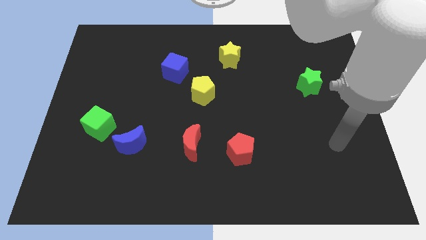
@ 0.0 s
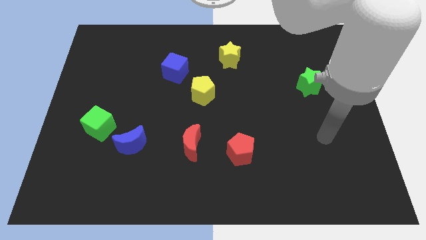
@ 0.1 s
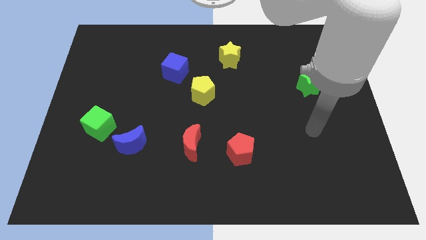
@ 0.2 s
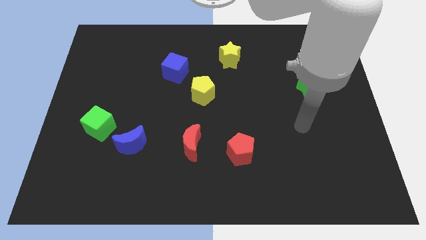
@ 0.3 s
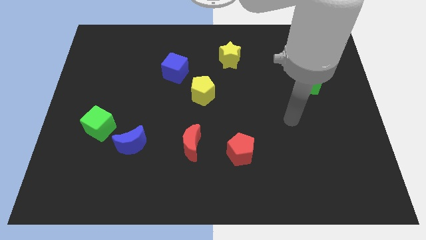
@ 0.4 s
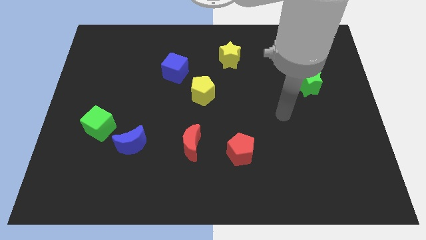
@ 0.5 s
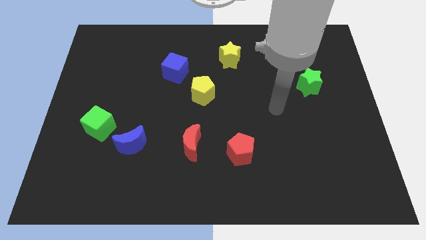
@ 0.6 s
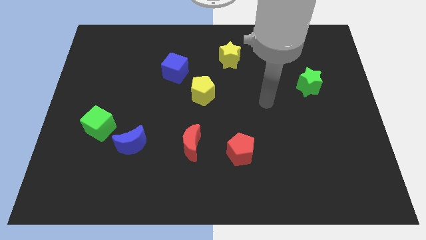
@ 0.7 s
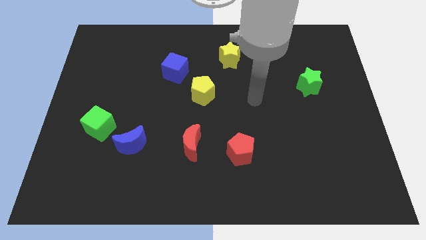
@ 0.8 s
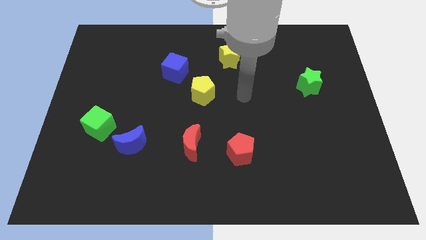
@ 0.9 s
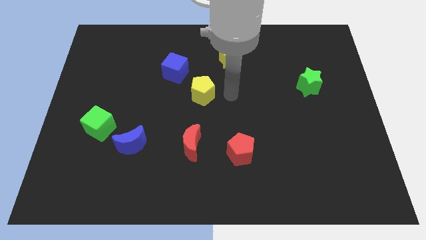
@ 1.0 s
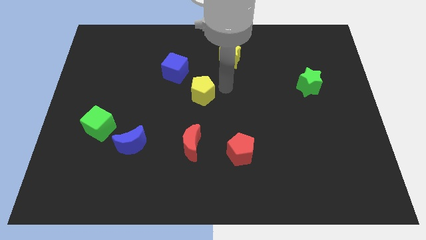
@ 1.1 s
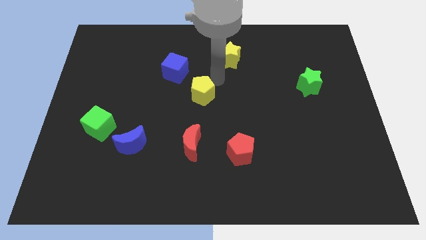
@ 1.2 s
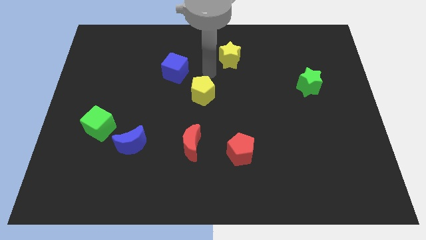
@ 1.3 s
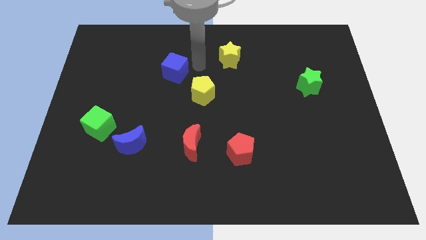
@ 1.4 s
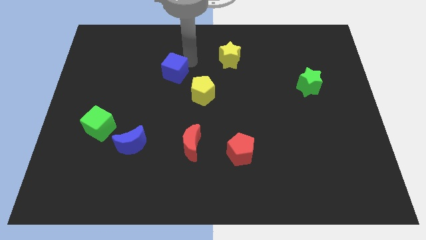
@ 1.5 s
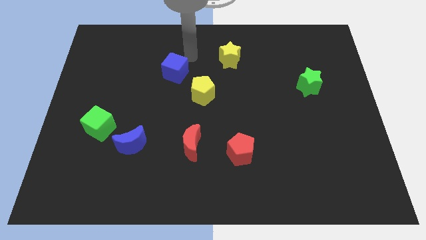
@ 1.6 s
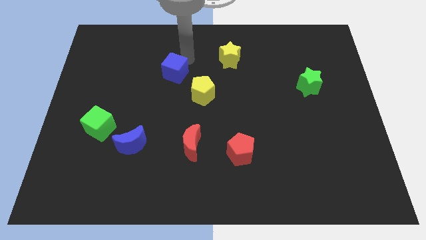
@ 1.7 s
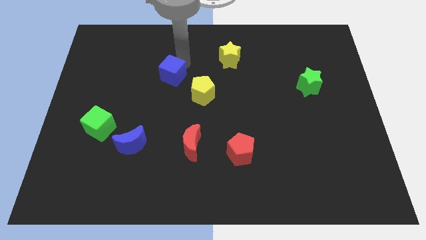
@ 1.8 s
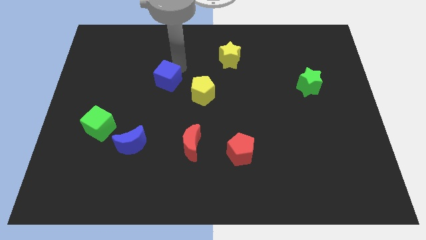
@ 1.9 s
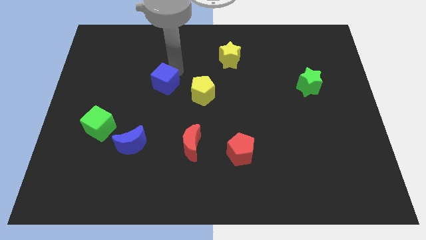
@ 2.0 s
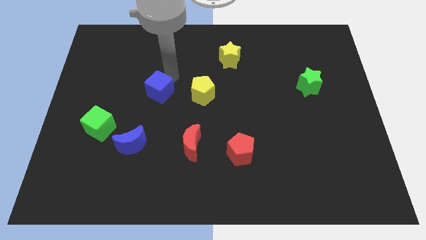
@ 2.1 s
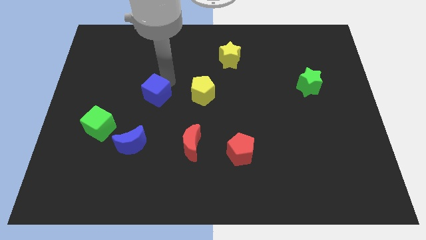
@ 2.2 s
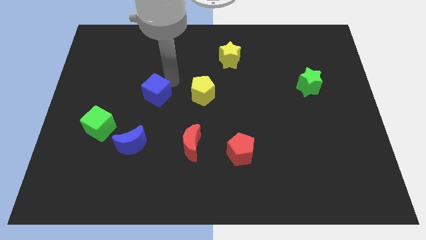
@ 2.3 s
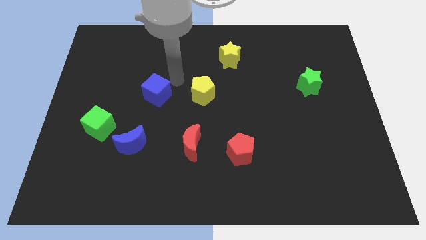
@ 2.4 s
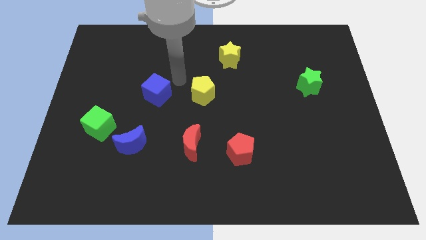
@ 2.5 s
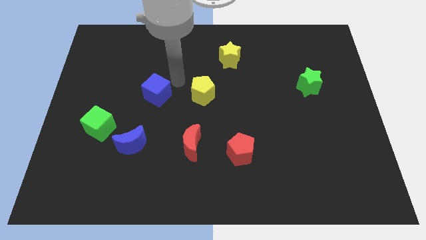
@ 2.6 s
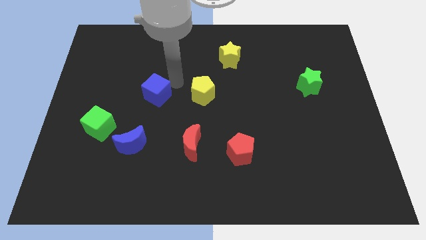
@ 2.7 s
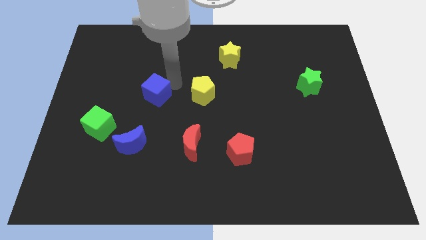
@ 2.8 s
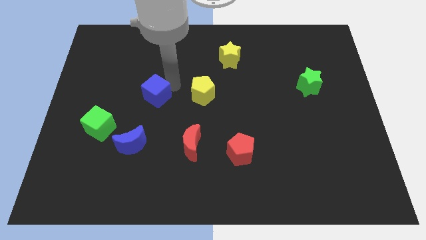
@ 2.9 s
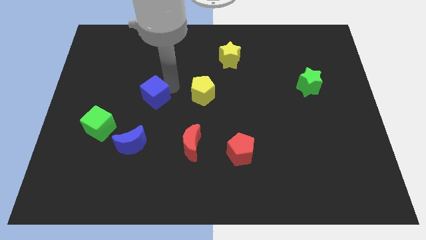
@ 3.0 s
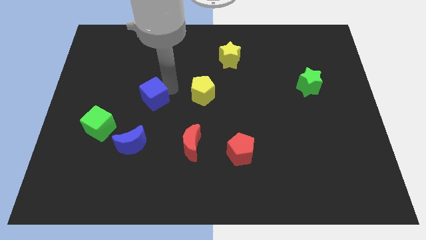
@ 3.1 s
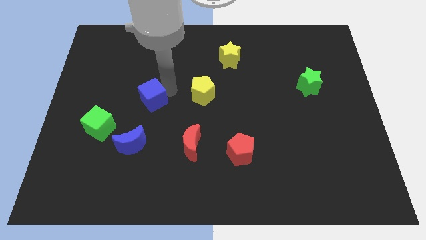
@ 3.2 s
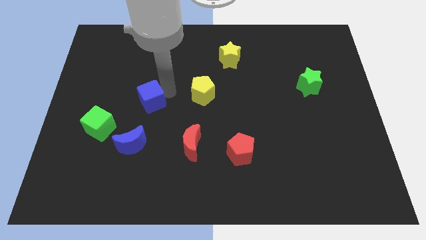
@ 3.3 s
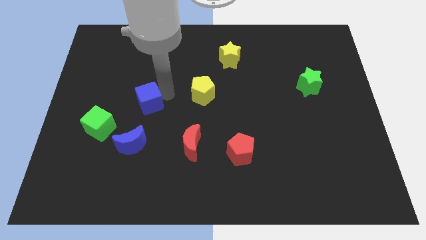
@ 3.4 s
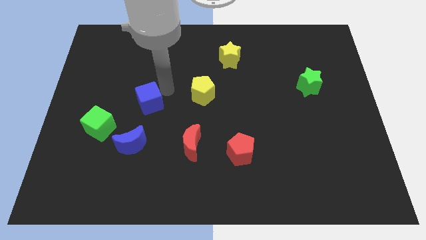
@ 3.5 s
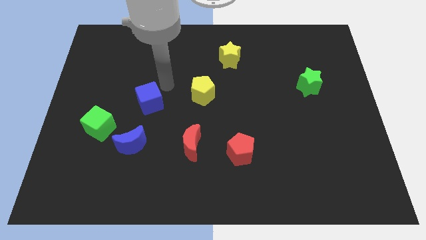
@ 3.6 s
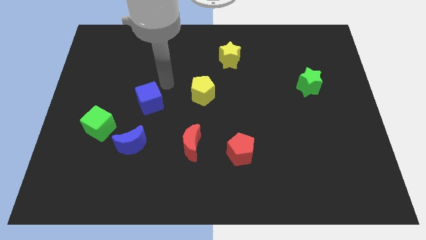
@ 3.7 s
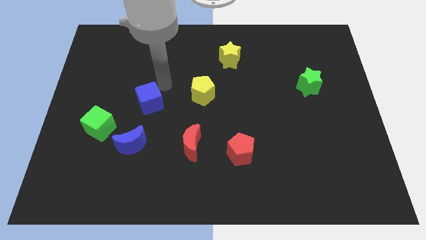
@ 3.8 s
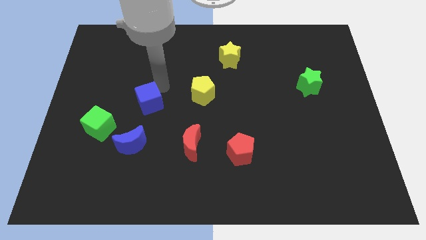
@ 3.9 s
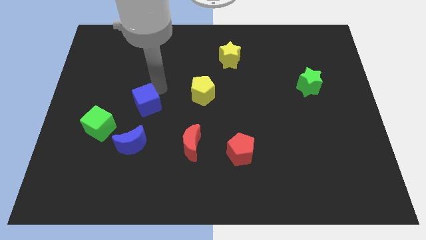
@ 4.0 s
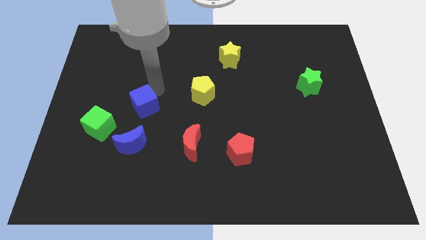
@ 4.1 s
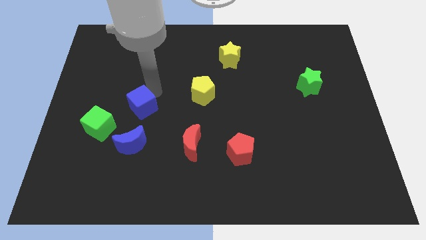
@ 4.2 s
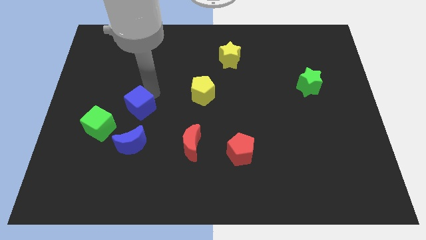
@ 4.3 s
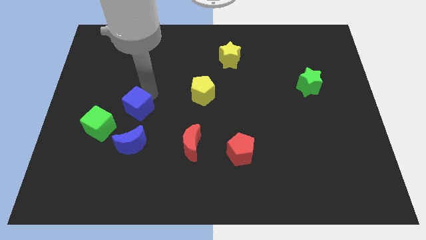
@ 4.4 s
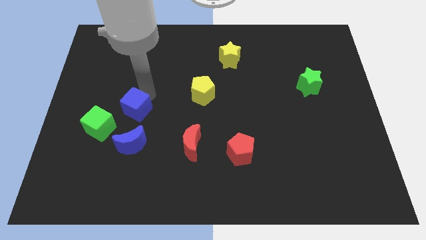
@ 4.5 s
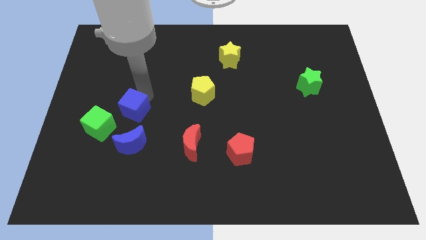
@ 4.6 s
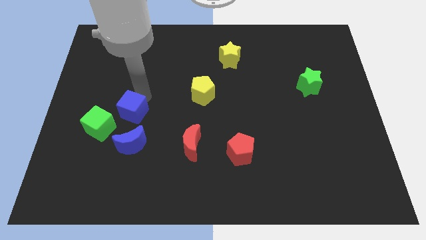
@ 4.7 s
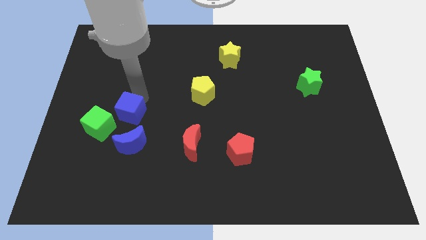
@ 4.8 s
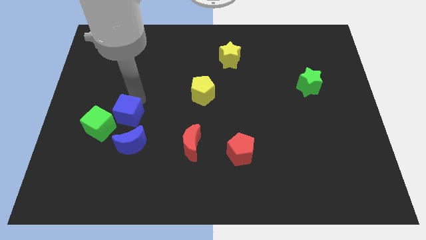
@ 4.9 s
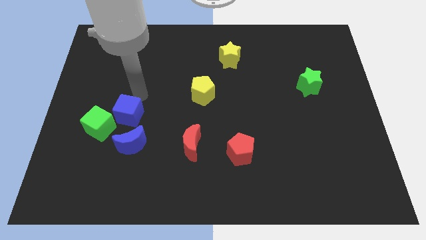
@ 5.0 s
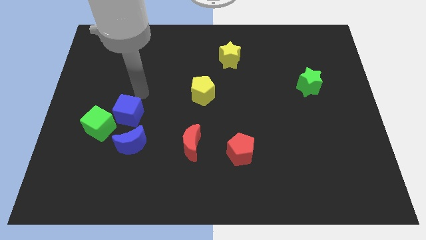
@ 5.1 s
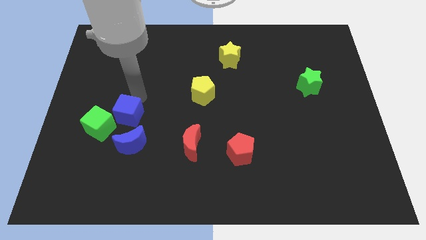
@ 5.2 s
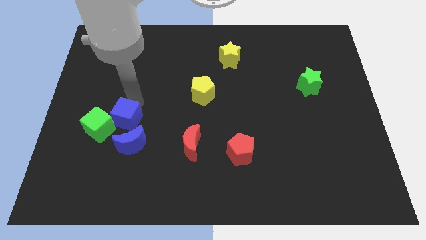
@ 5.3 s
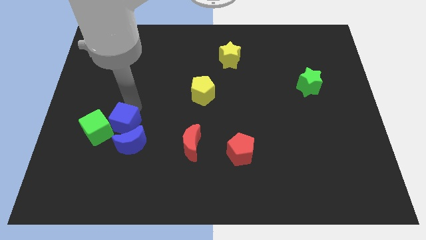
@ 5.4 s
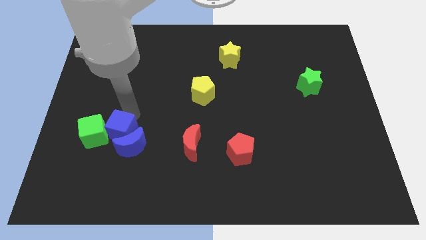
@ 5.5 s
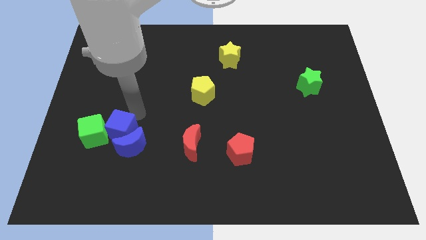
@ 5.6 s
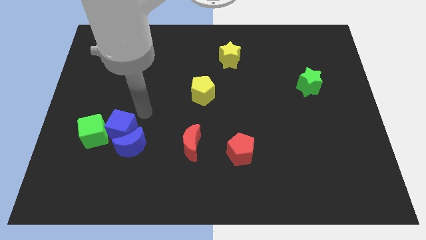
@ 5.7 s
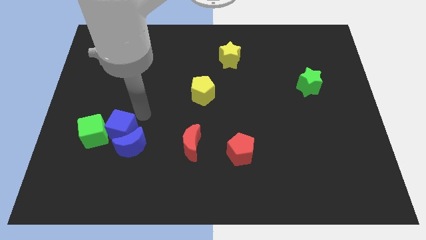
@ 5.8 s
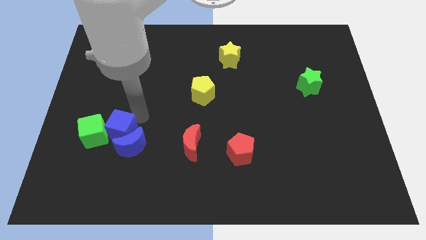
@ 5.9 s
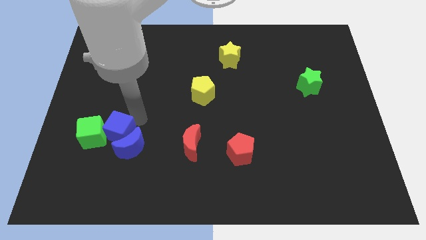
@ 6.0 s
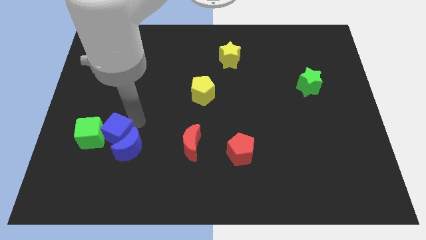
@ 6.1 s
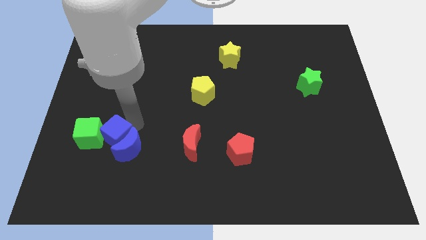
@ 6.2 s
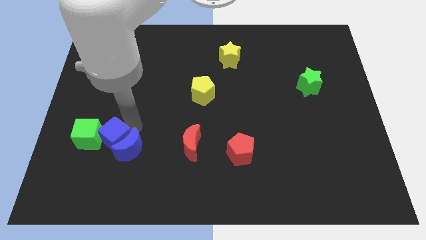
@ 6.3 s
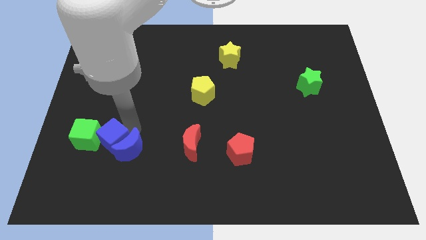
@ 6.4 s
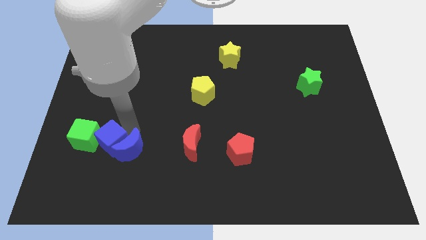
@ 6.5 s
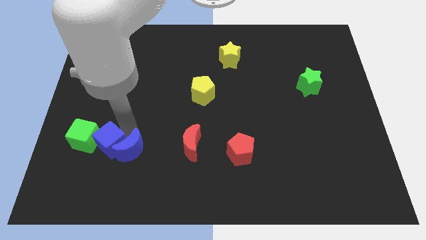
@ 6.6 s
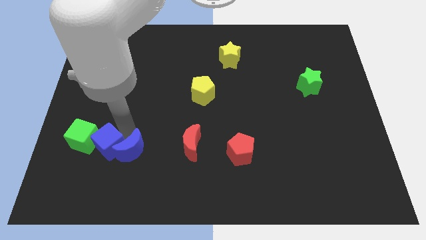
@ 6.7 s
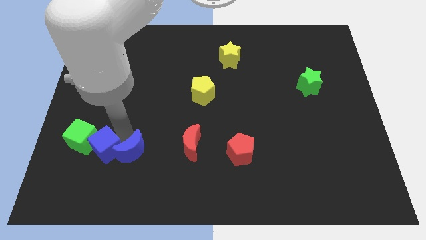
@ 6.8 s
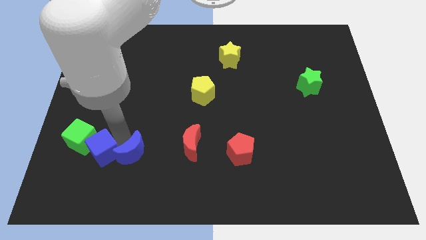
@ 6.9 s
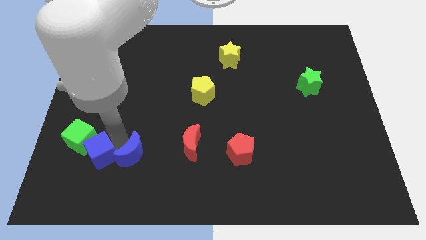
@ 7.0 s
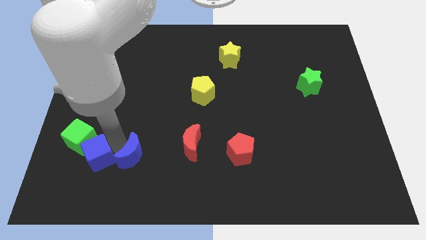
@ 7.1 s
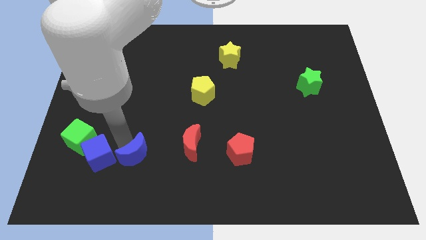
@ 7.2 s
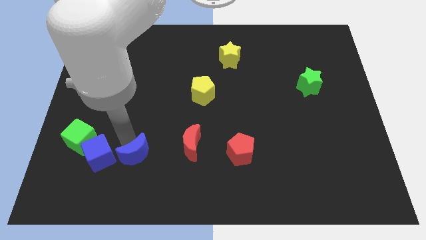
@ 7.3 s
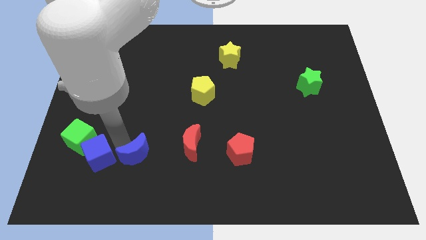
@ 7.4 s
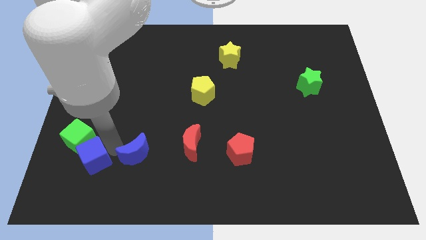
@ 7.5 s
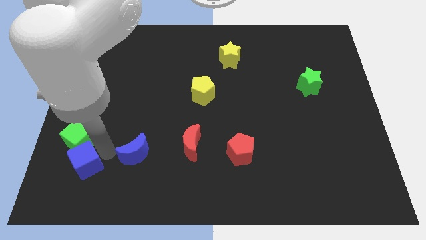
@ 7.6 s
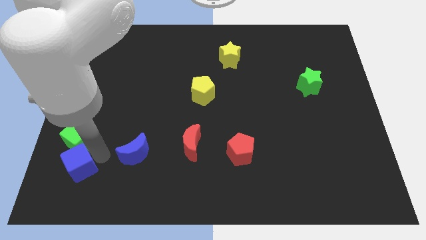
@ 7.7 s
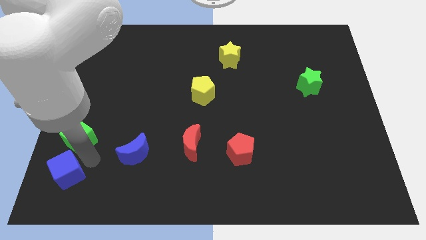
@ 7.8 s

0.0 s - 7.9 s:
move the blue cube to the bottom left of the board
